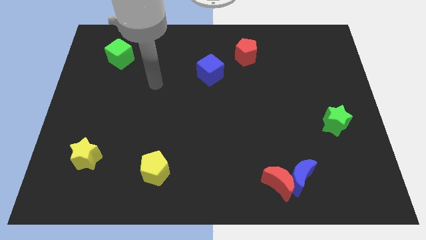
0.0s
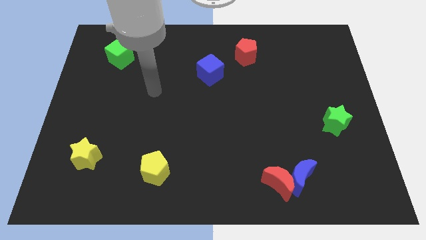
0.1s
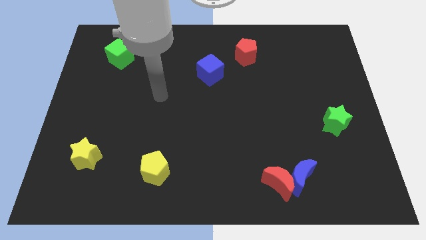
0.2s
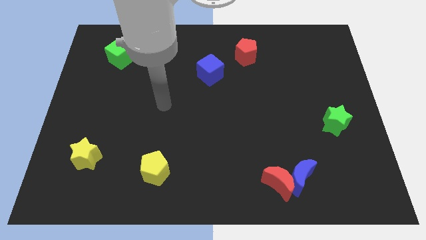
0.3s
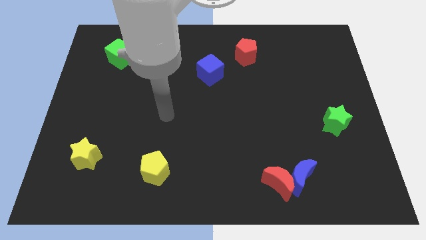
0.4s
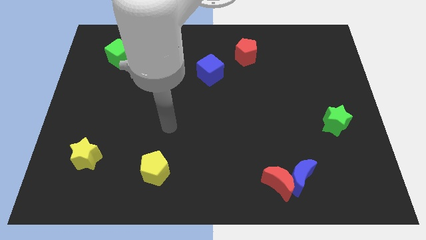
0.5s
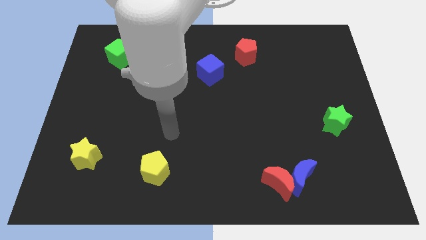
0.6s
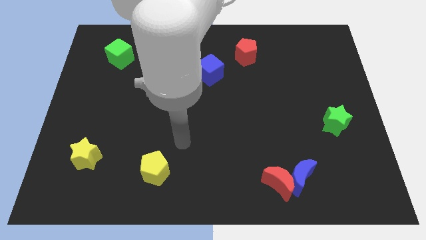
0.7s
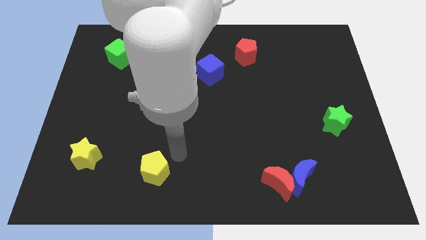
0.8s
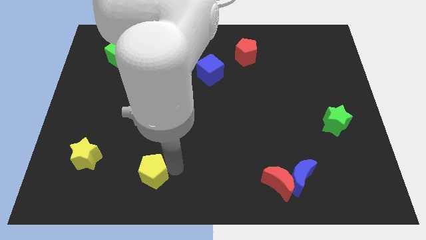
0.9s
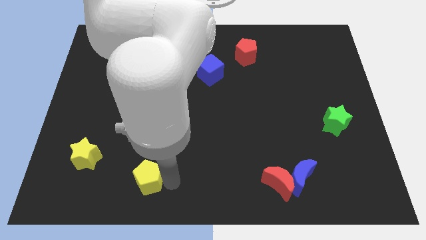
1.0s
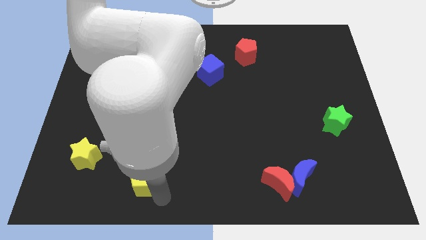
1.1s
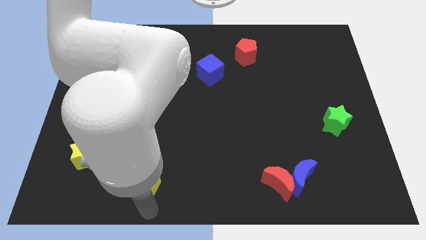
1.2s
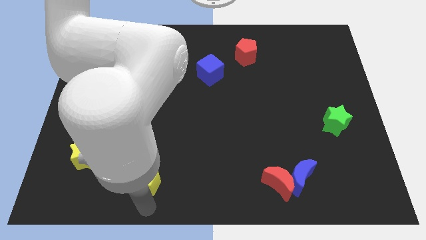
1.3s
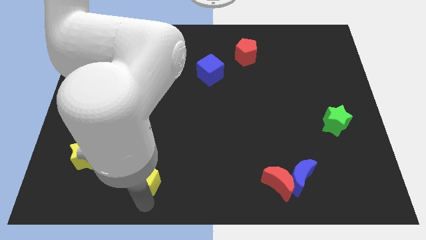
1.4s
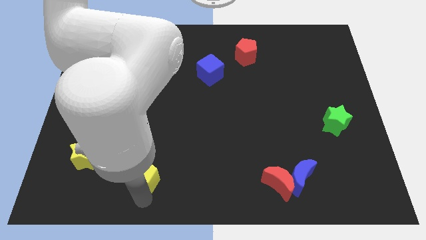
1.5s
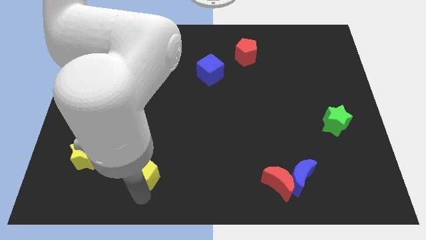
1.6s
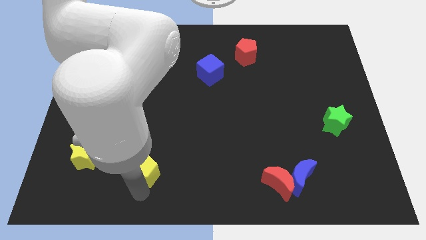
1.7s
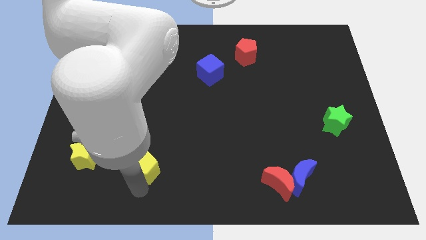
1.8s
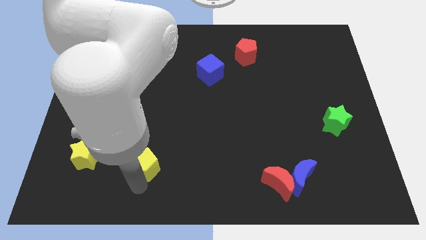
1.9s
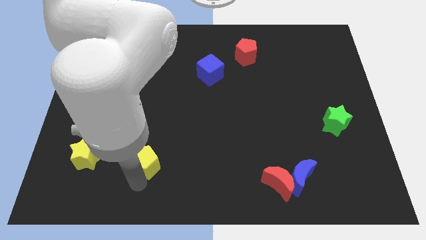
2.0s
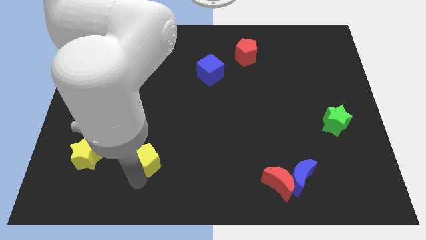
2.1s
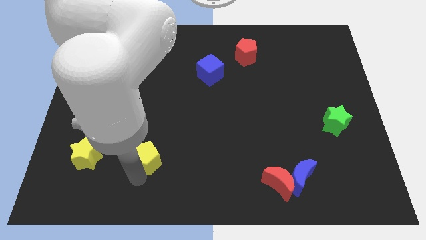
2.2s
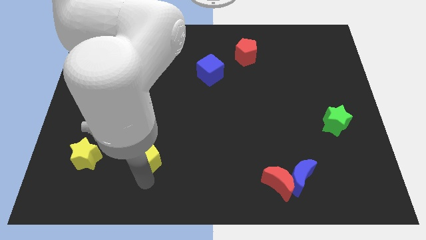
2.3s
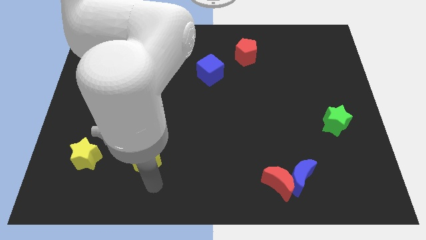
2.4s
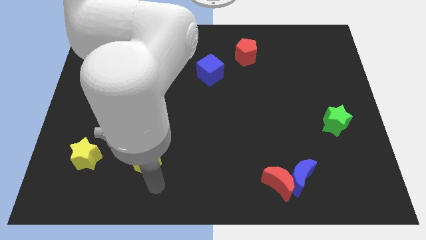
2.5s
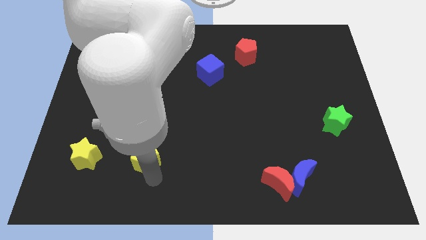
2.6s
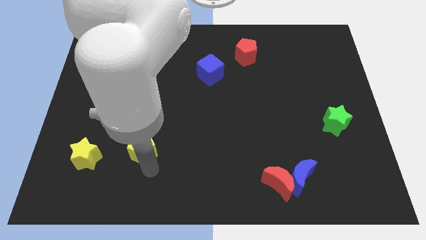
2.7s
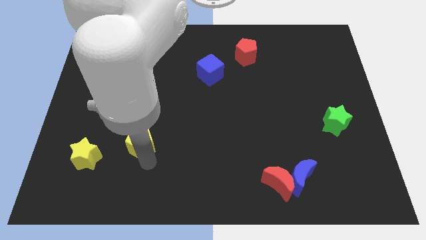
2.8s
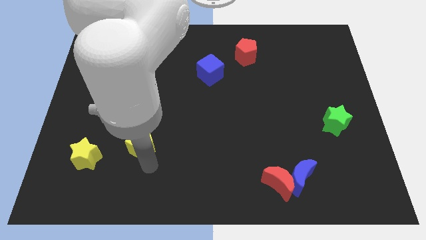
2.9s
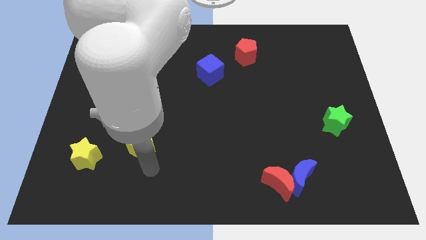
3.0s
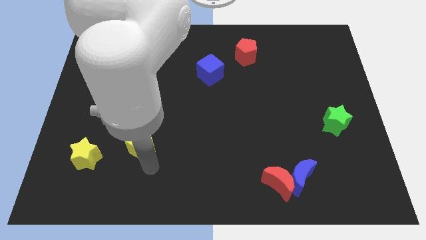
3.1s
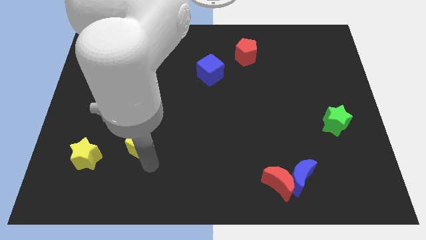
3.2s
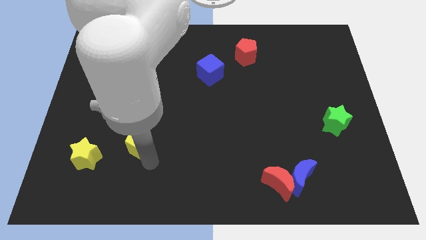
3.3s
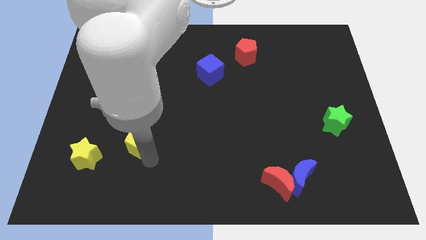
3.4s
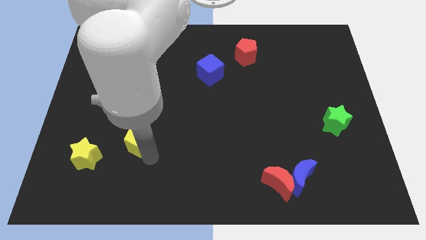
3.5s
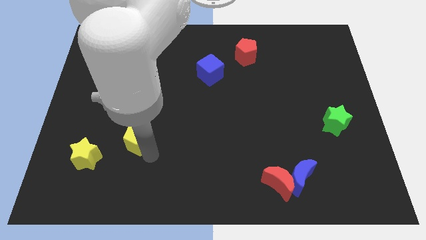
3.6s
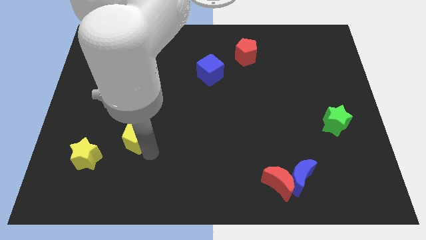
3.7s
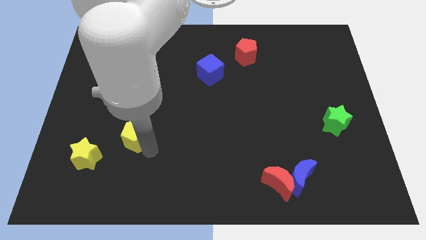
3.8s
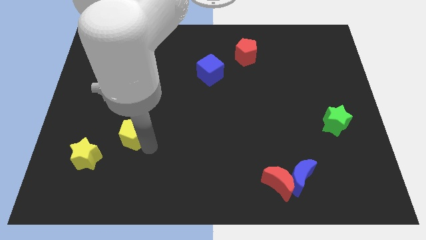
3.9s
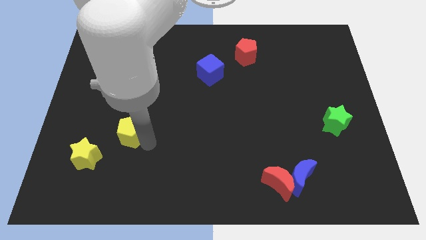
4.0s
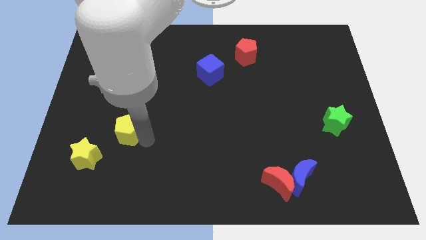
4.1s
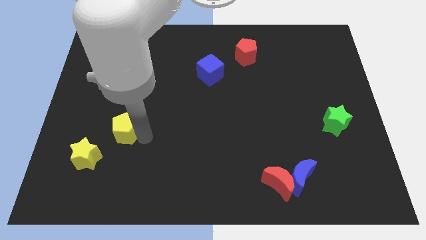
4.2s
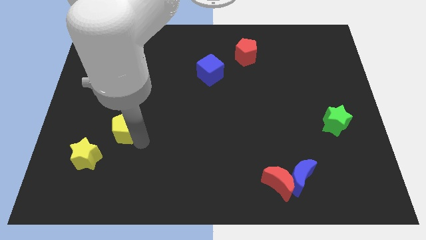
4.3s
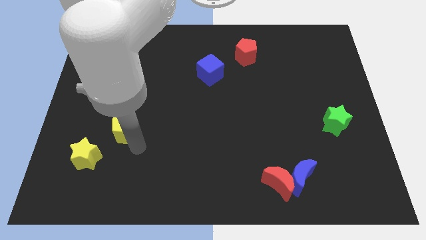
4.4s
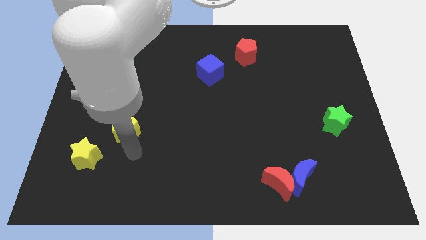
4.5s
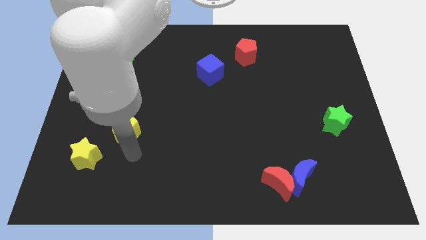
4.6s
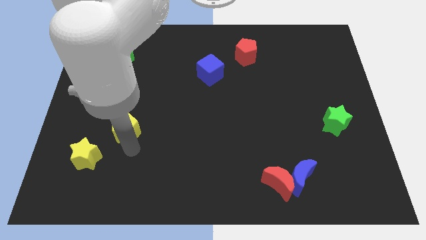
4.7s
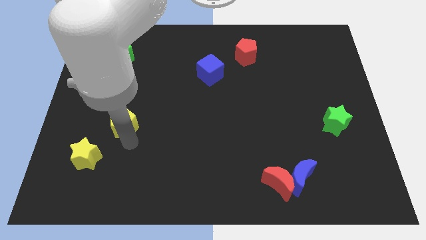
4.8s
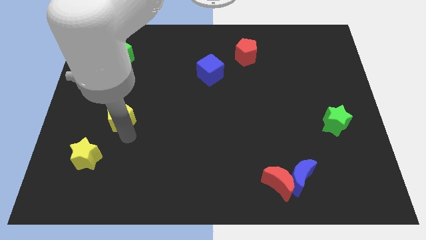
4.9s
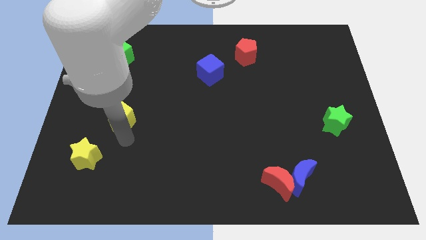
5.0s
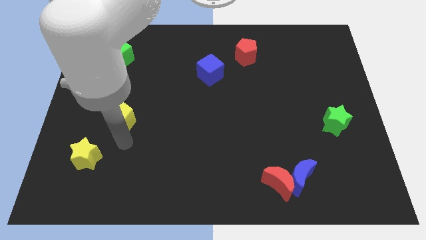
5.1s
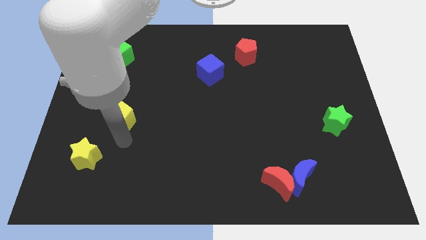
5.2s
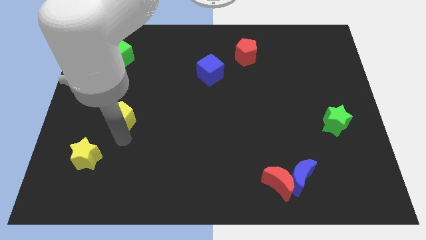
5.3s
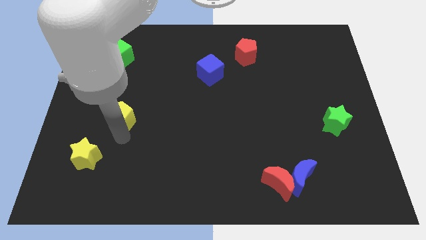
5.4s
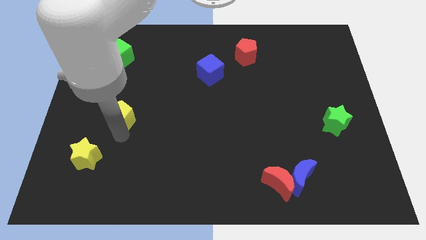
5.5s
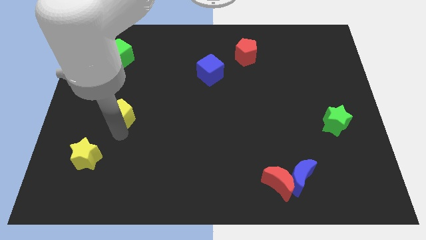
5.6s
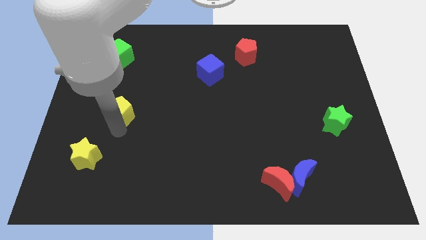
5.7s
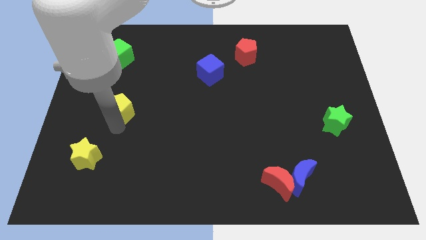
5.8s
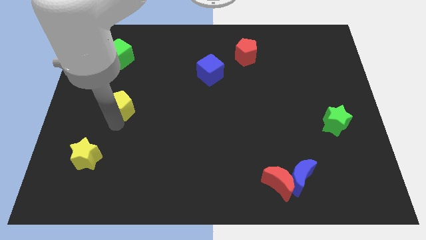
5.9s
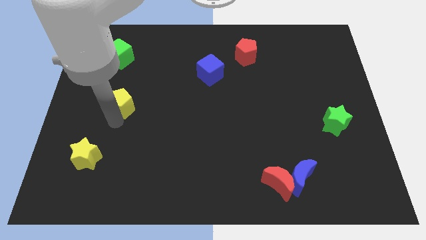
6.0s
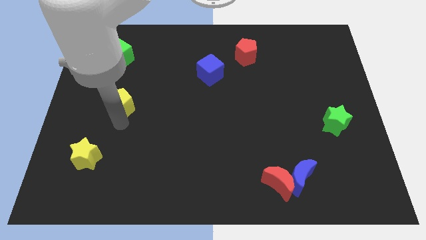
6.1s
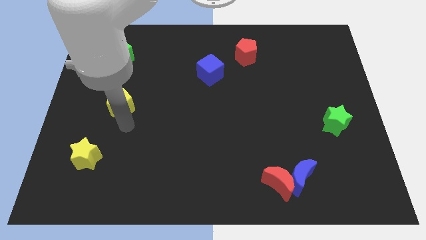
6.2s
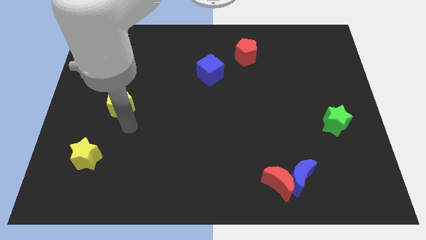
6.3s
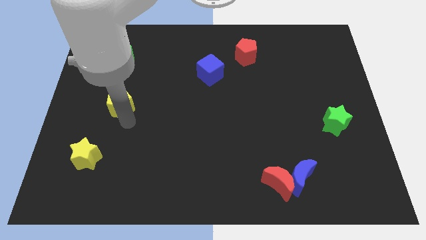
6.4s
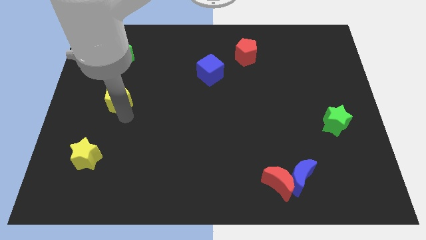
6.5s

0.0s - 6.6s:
push the yellow pentagon to the bottom side of the green cube

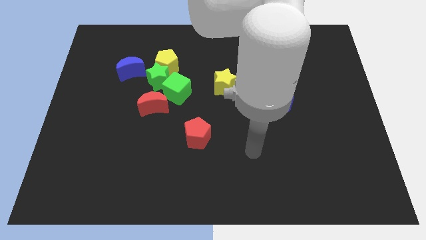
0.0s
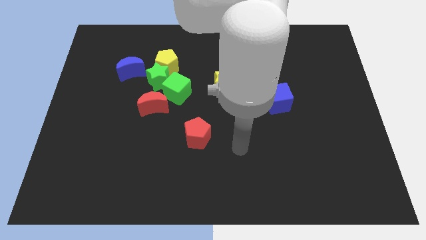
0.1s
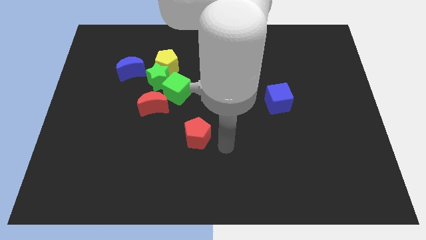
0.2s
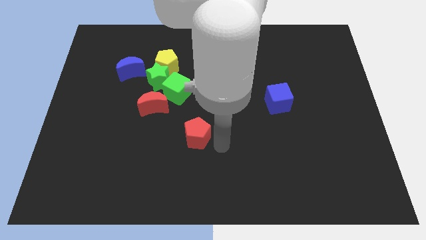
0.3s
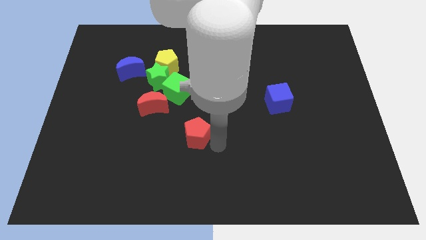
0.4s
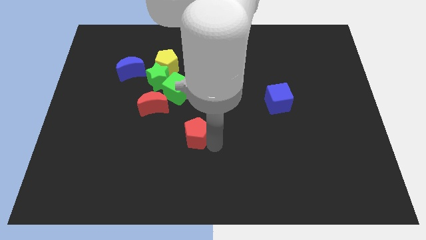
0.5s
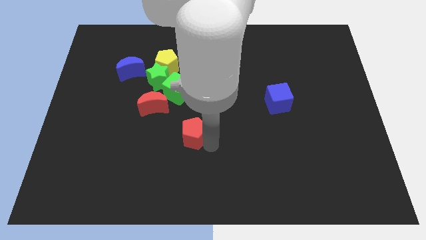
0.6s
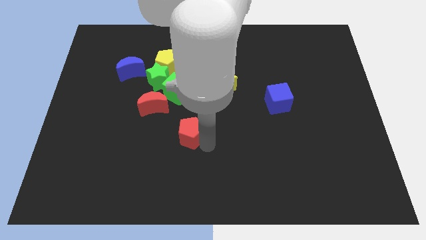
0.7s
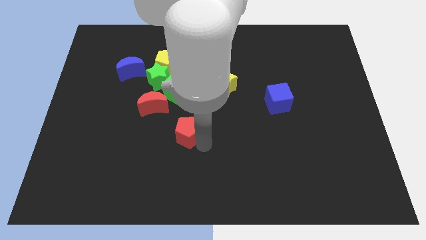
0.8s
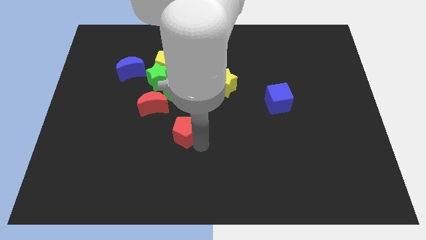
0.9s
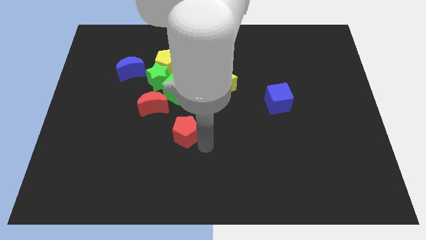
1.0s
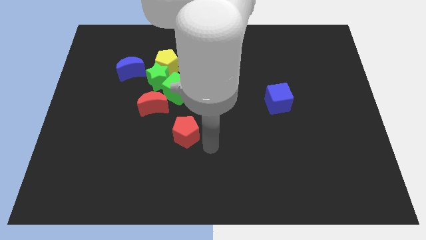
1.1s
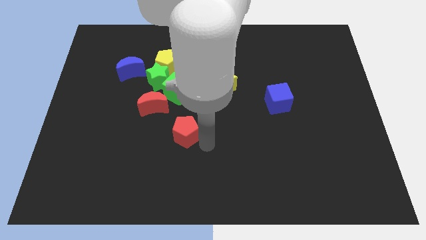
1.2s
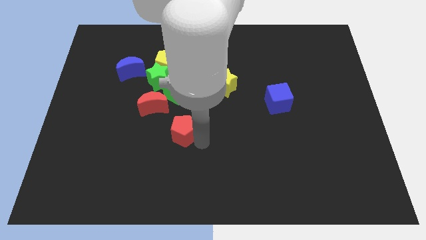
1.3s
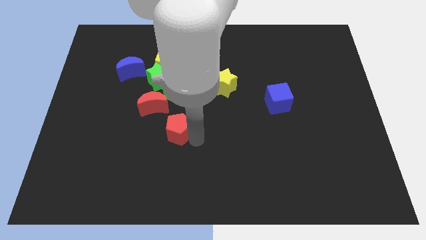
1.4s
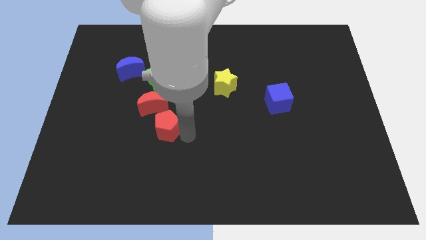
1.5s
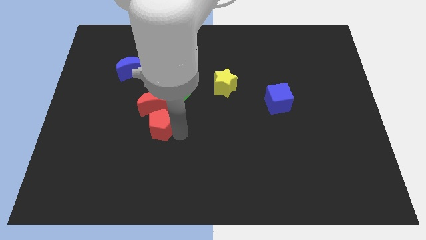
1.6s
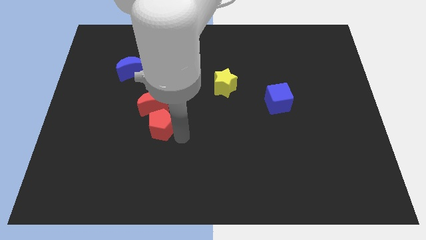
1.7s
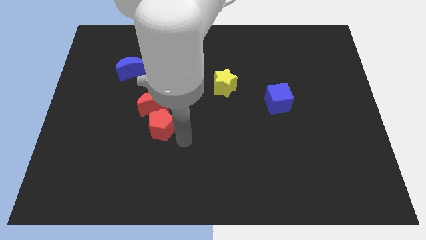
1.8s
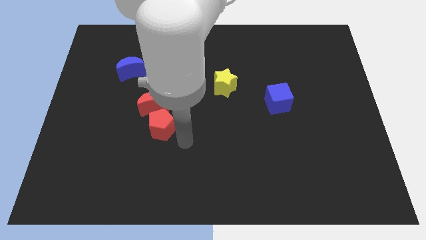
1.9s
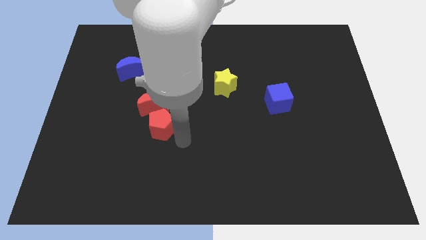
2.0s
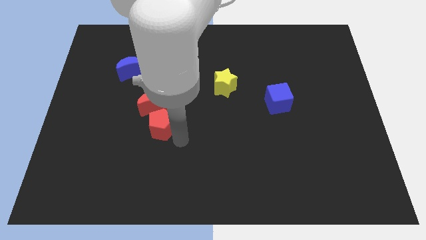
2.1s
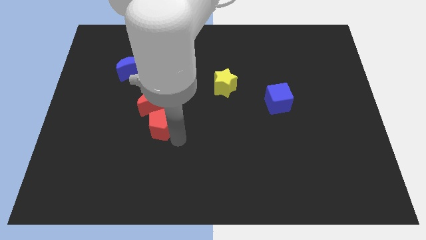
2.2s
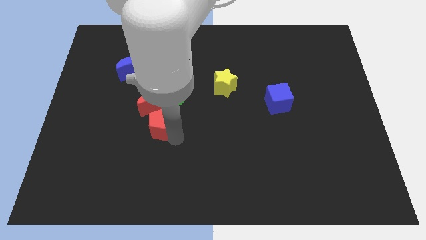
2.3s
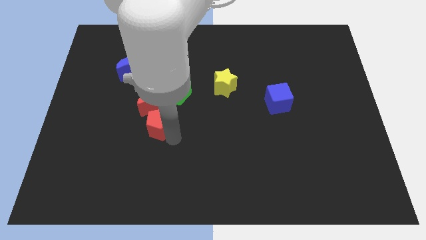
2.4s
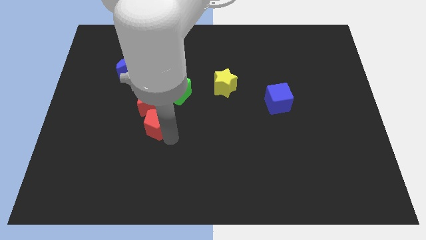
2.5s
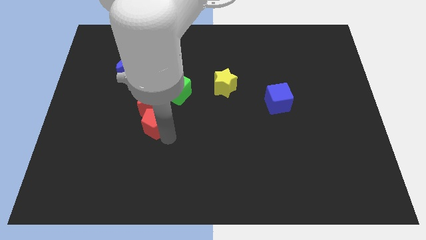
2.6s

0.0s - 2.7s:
slide the red pentagon to the bottom left side of the green cube
